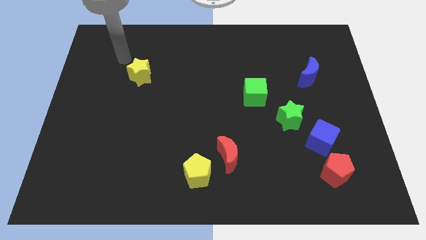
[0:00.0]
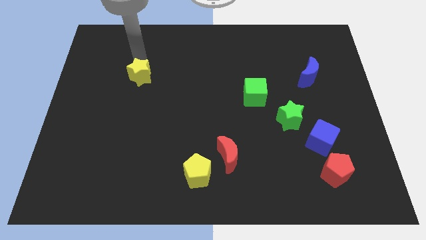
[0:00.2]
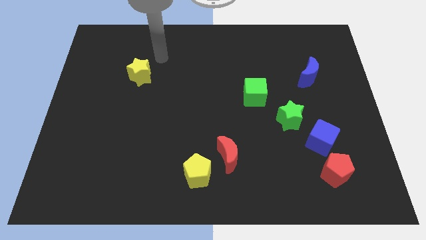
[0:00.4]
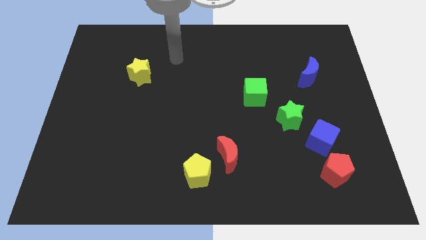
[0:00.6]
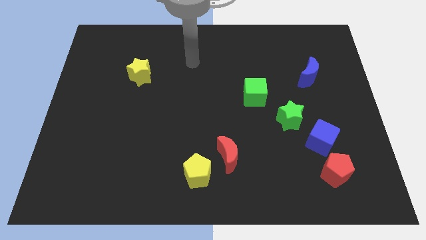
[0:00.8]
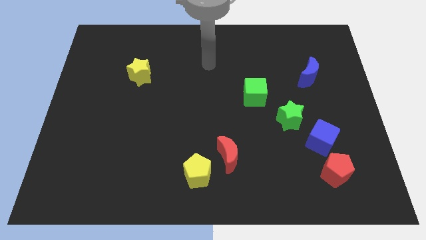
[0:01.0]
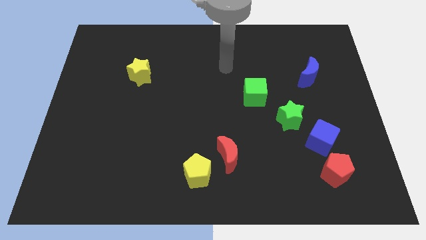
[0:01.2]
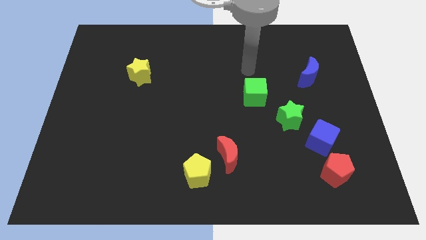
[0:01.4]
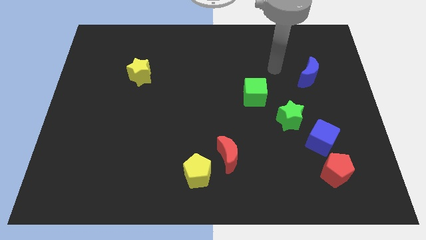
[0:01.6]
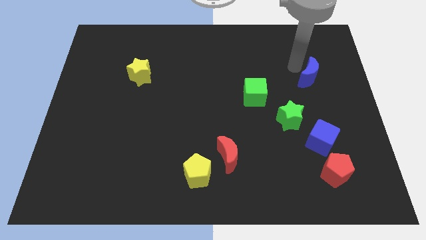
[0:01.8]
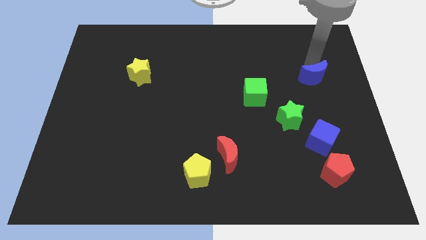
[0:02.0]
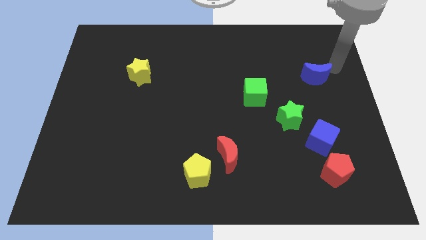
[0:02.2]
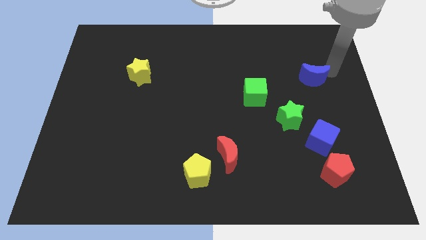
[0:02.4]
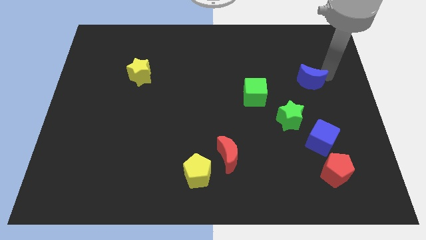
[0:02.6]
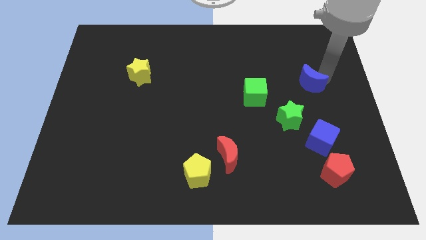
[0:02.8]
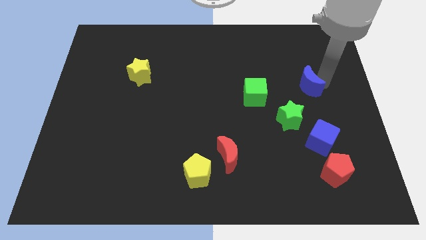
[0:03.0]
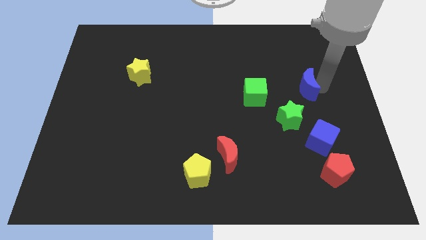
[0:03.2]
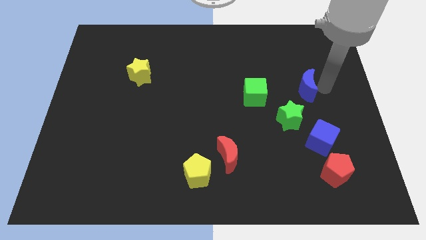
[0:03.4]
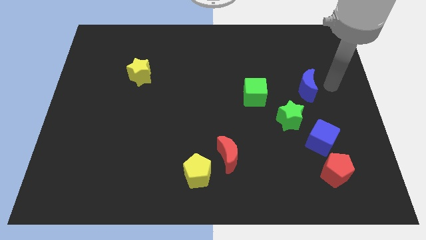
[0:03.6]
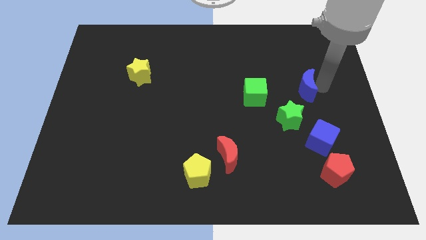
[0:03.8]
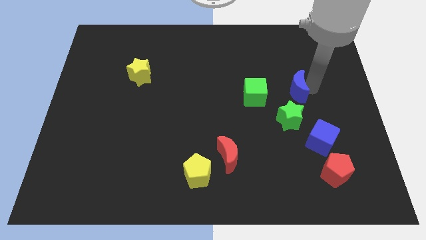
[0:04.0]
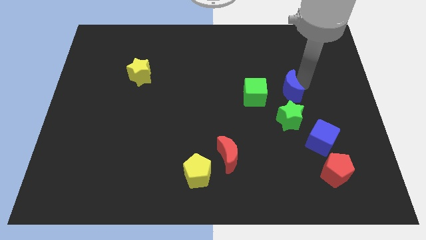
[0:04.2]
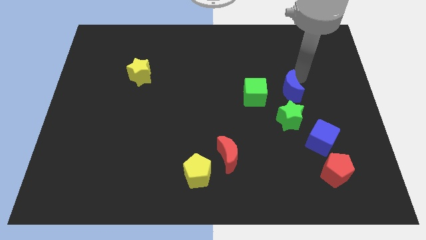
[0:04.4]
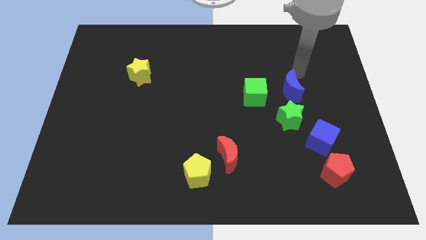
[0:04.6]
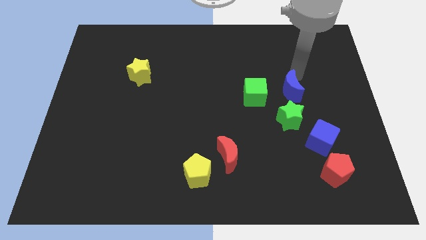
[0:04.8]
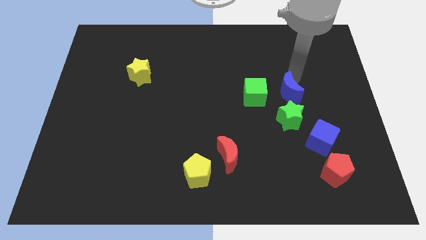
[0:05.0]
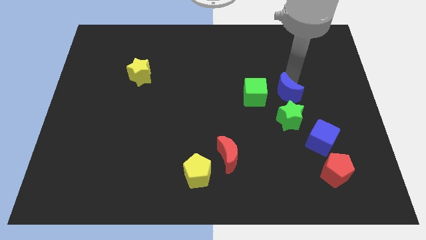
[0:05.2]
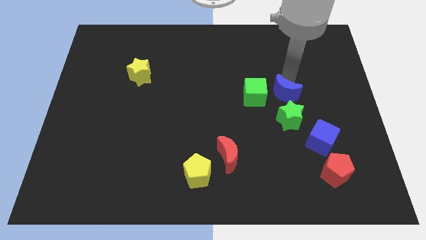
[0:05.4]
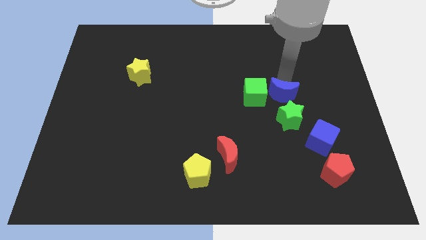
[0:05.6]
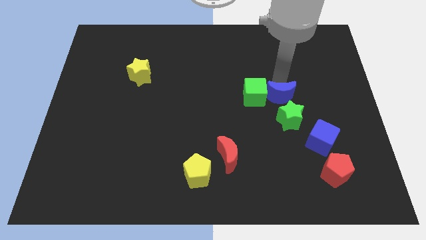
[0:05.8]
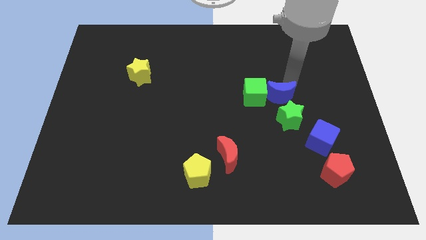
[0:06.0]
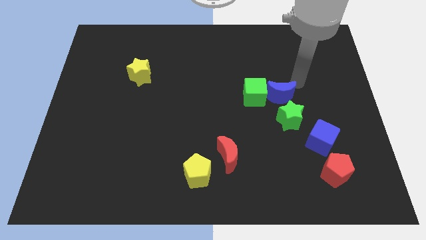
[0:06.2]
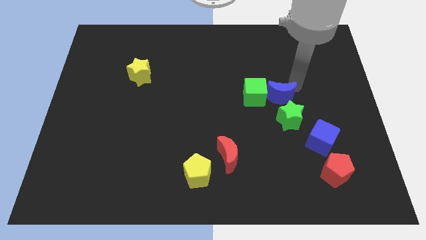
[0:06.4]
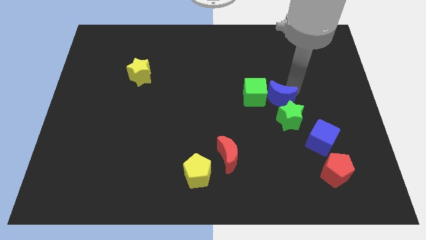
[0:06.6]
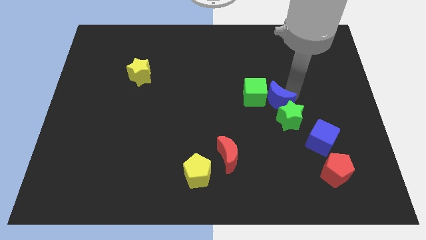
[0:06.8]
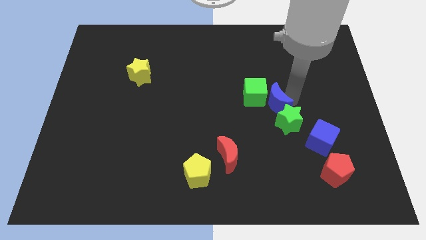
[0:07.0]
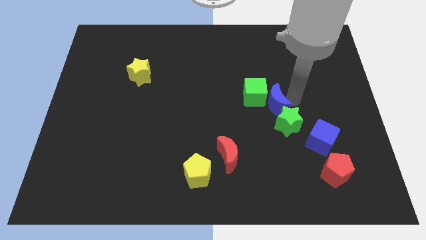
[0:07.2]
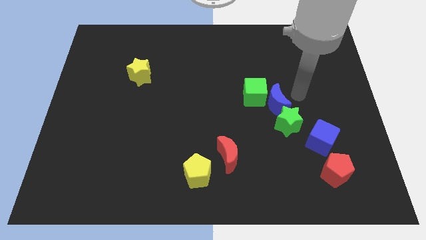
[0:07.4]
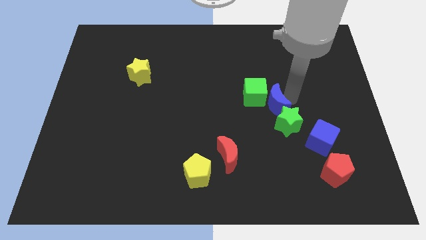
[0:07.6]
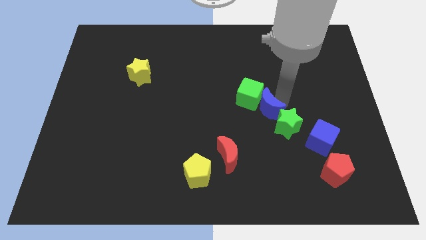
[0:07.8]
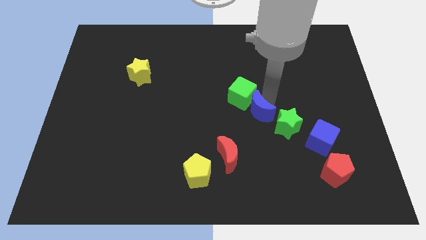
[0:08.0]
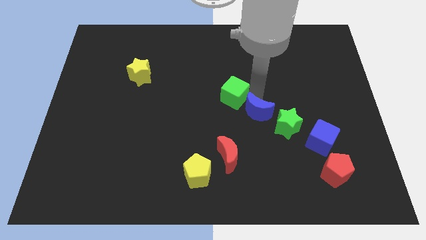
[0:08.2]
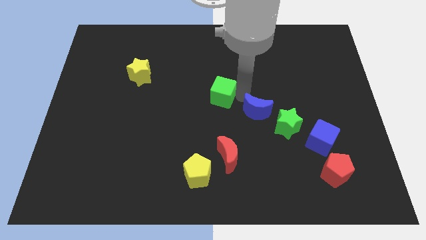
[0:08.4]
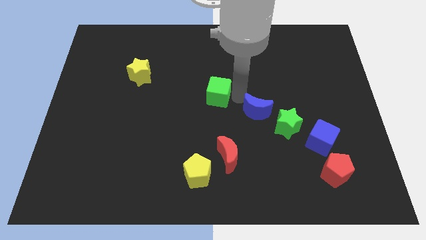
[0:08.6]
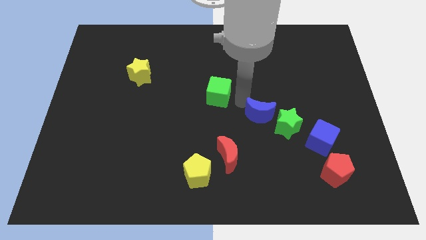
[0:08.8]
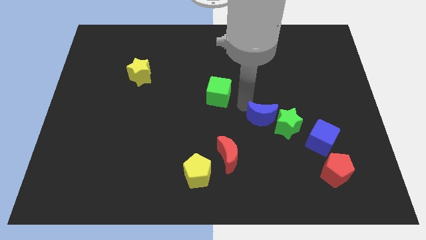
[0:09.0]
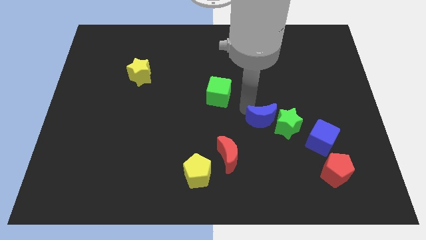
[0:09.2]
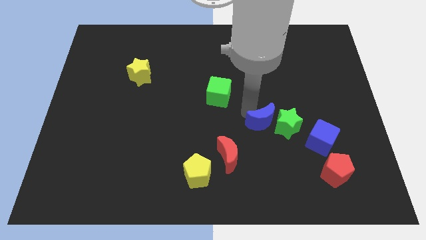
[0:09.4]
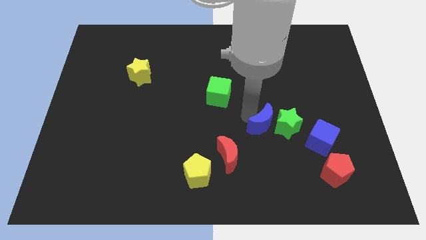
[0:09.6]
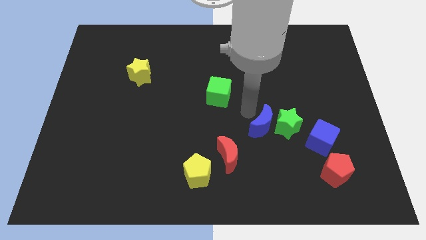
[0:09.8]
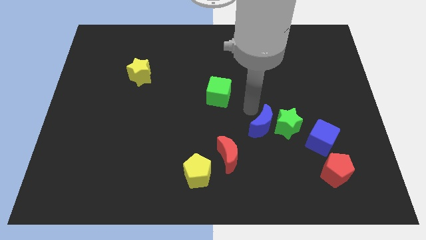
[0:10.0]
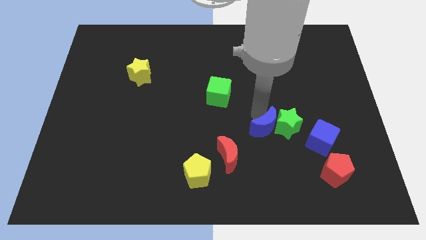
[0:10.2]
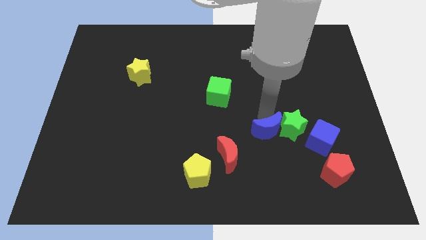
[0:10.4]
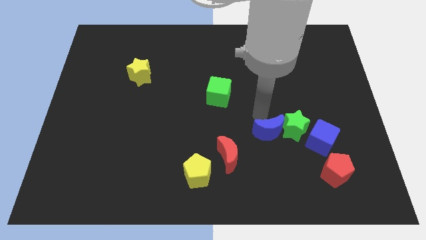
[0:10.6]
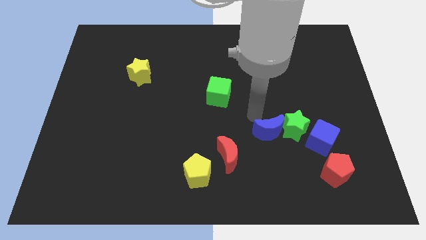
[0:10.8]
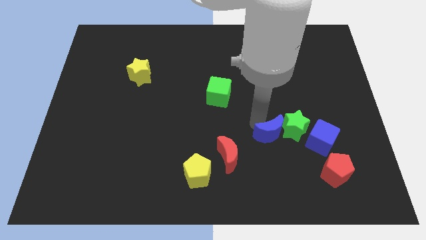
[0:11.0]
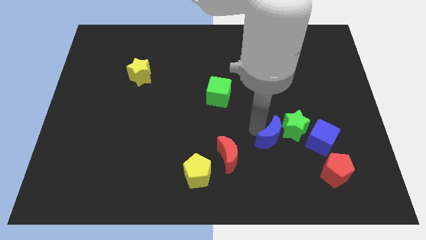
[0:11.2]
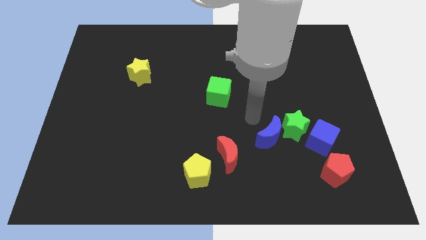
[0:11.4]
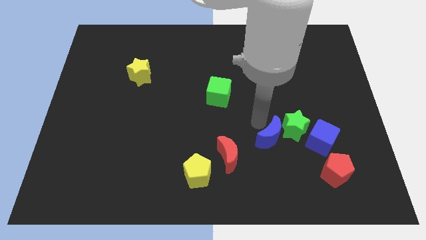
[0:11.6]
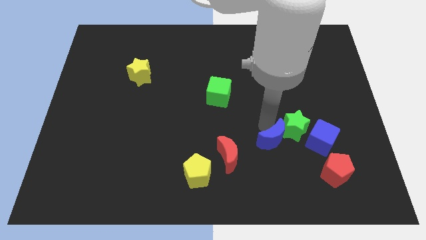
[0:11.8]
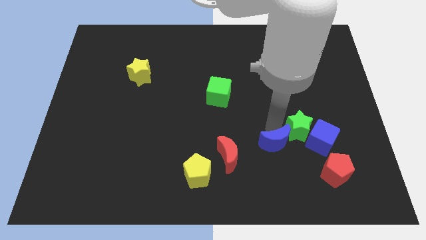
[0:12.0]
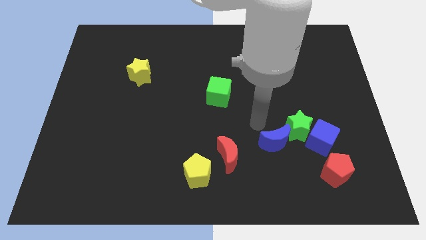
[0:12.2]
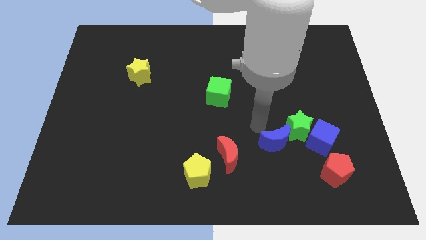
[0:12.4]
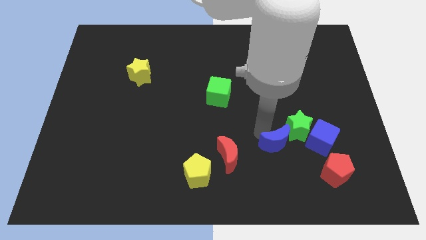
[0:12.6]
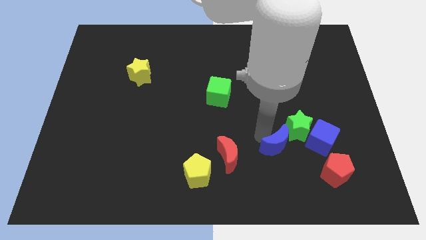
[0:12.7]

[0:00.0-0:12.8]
slide the blue moon to the bottom side of the green star

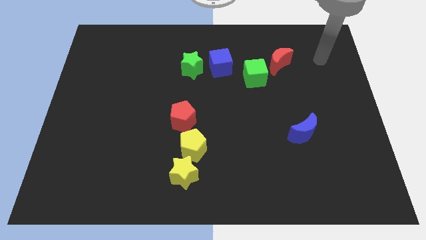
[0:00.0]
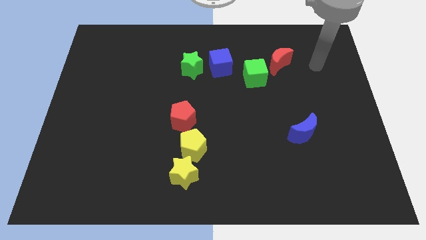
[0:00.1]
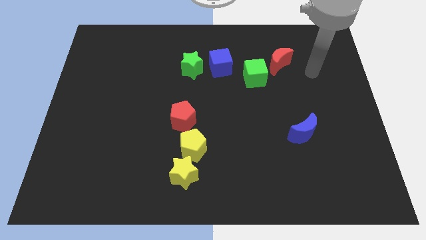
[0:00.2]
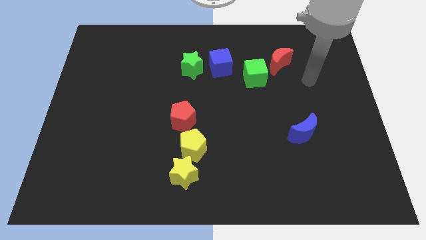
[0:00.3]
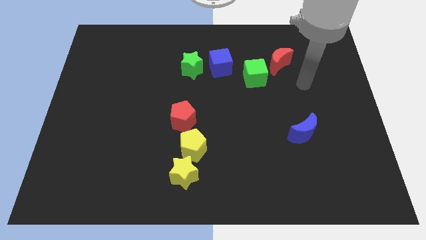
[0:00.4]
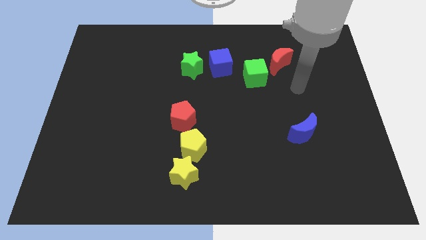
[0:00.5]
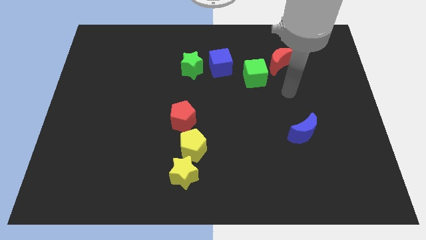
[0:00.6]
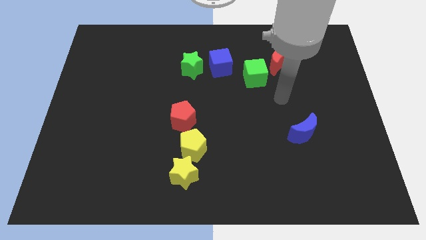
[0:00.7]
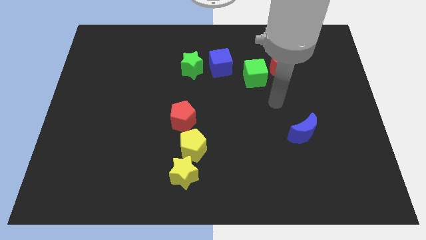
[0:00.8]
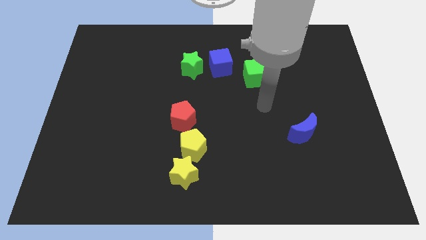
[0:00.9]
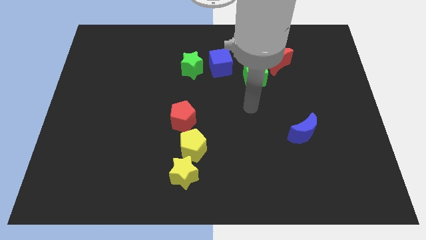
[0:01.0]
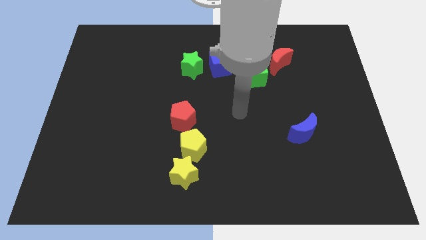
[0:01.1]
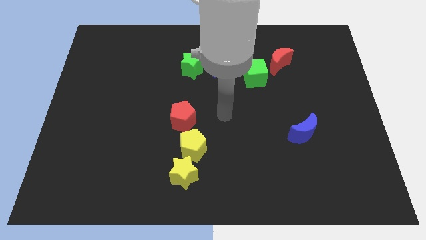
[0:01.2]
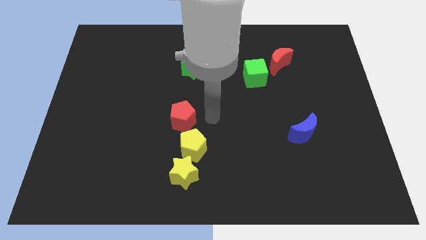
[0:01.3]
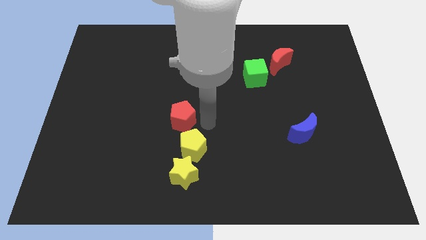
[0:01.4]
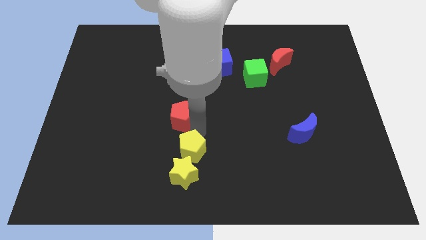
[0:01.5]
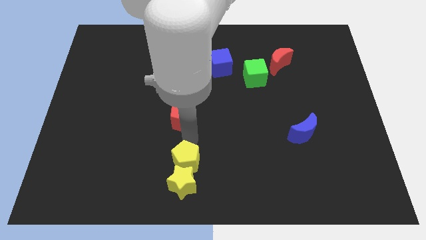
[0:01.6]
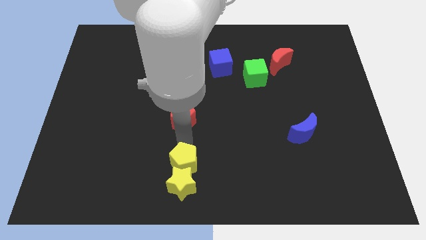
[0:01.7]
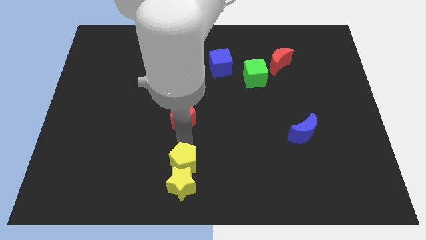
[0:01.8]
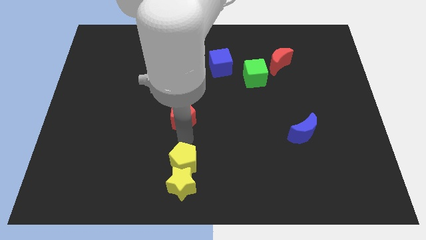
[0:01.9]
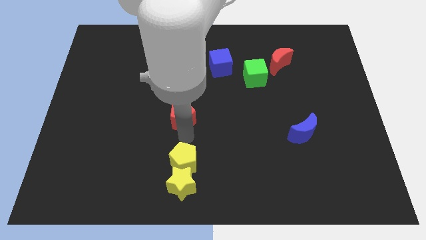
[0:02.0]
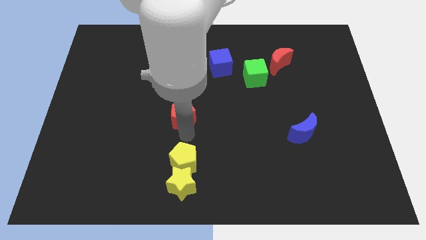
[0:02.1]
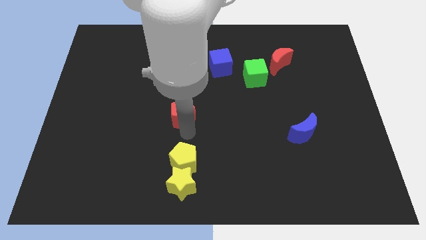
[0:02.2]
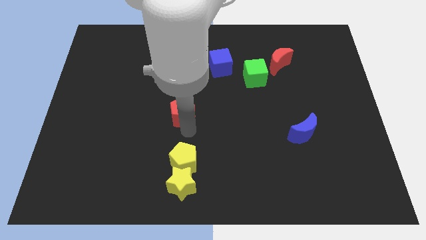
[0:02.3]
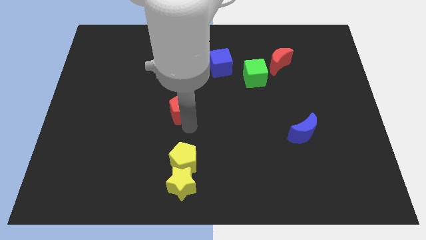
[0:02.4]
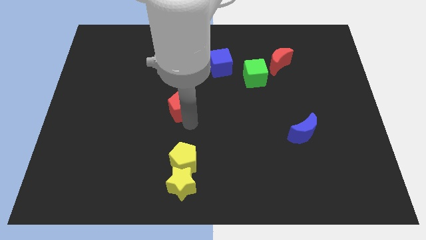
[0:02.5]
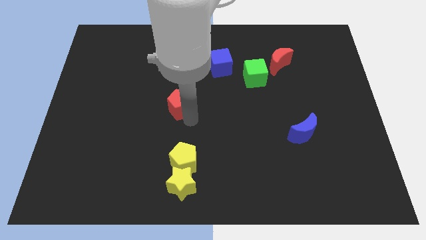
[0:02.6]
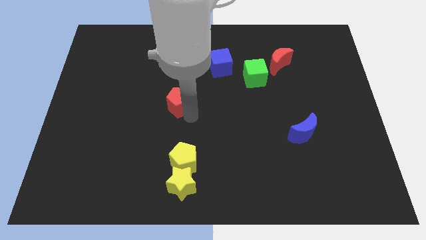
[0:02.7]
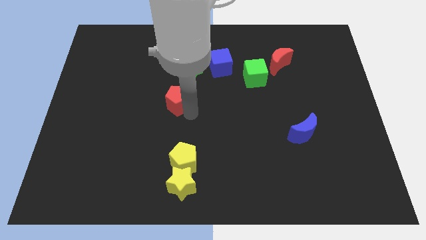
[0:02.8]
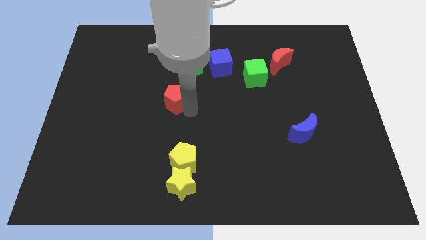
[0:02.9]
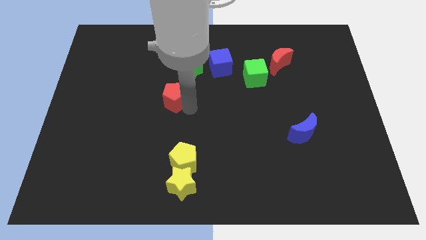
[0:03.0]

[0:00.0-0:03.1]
move the red pentagon to the bottom left side of the green star
